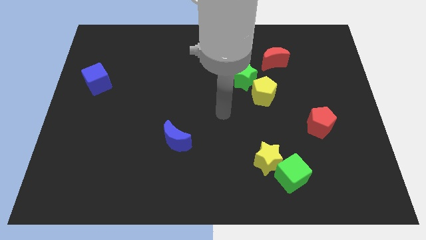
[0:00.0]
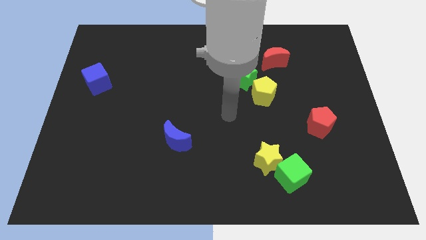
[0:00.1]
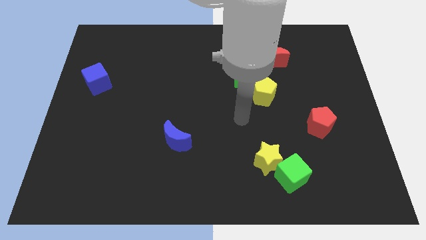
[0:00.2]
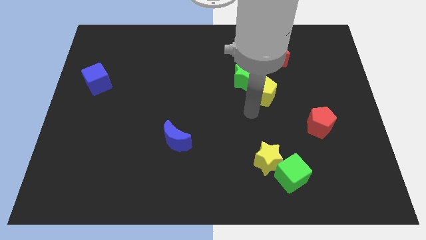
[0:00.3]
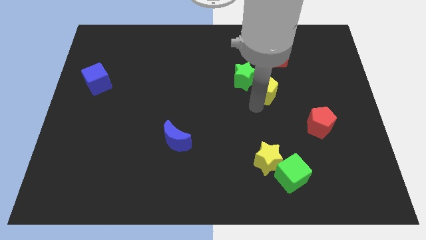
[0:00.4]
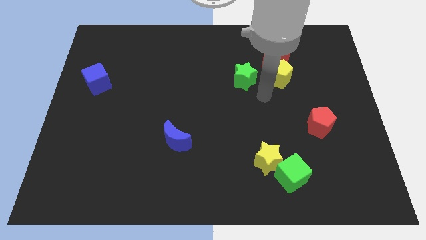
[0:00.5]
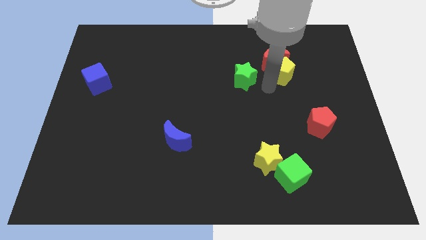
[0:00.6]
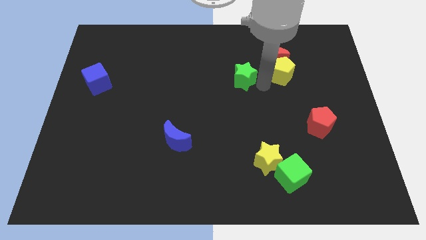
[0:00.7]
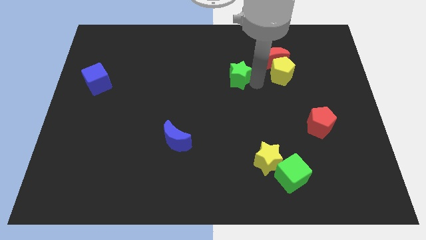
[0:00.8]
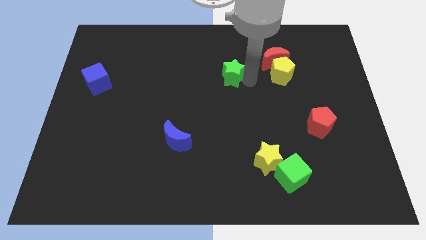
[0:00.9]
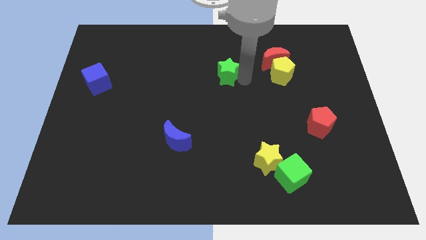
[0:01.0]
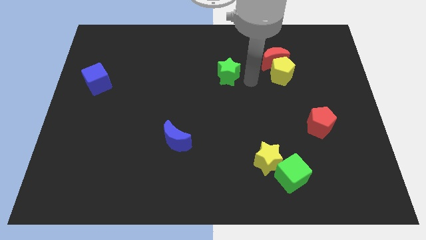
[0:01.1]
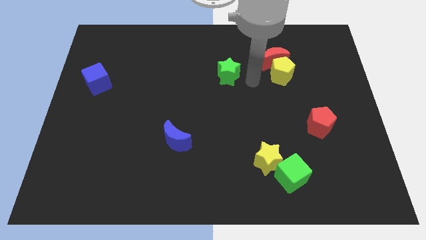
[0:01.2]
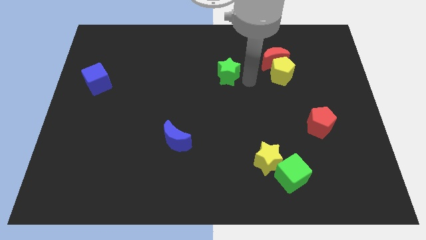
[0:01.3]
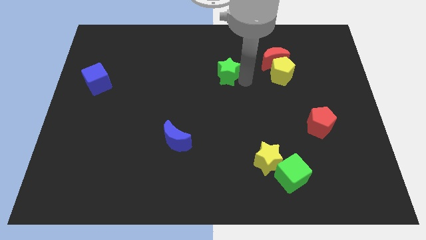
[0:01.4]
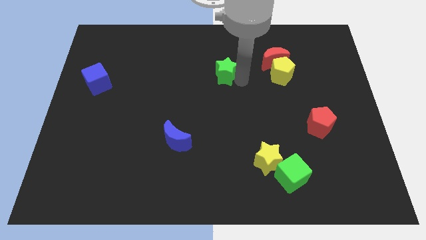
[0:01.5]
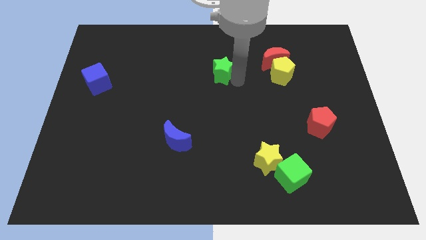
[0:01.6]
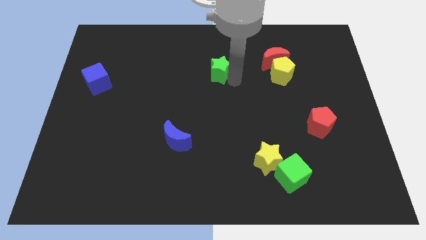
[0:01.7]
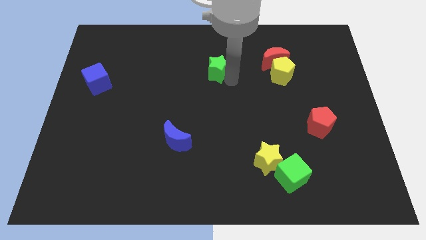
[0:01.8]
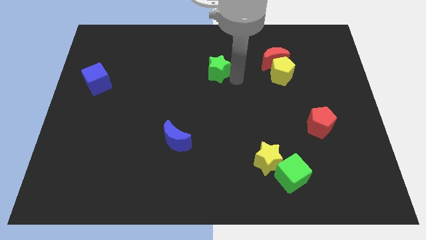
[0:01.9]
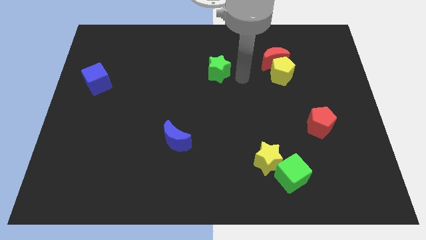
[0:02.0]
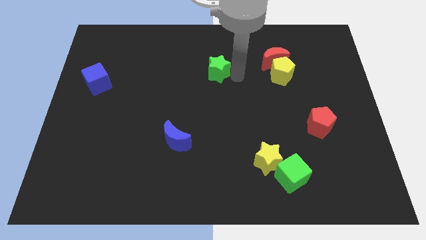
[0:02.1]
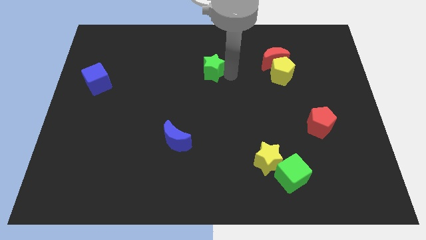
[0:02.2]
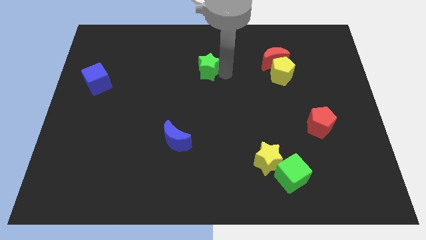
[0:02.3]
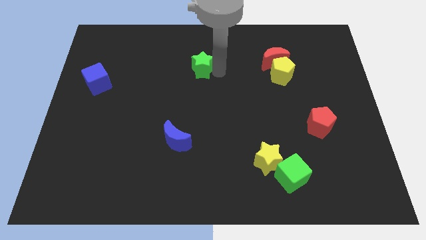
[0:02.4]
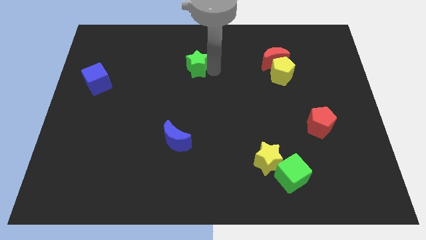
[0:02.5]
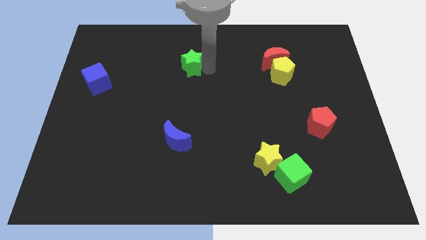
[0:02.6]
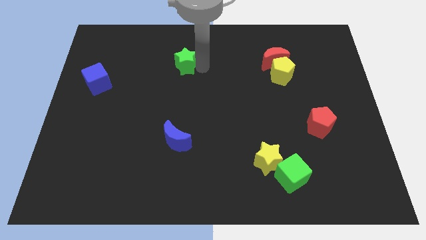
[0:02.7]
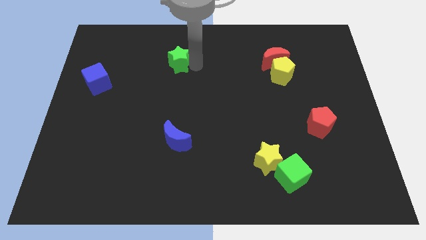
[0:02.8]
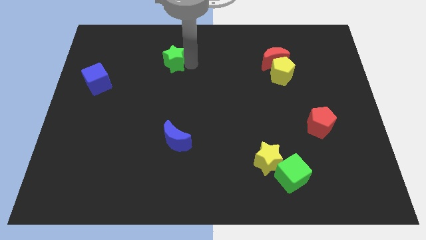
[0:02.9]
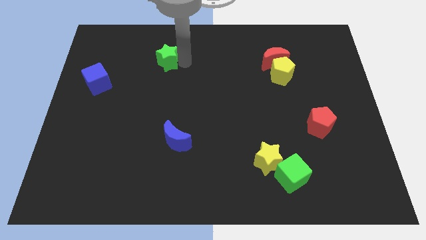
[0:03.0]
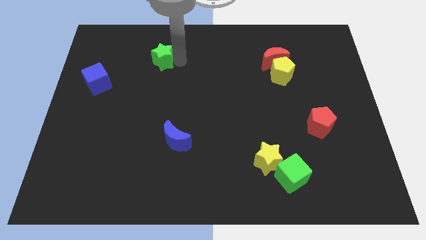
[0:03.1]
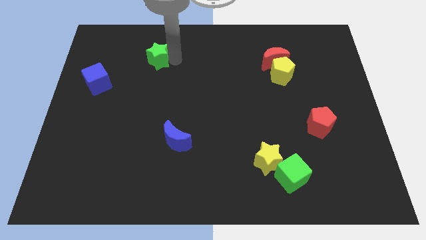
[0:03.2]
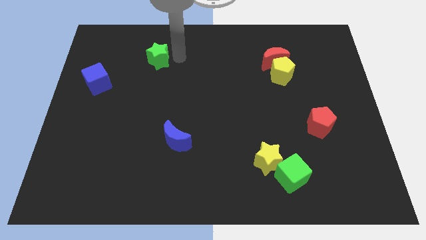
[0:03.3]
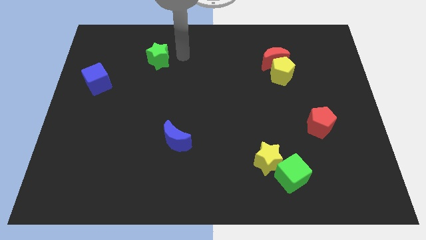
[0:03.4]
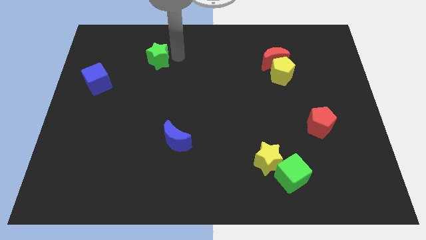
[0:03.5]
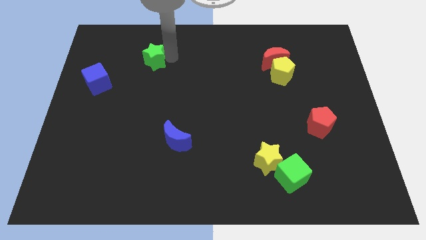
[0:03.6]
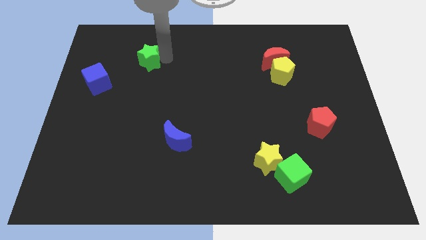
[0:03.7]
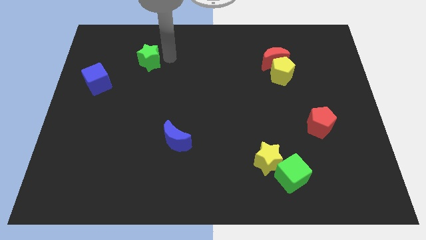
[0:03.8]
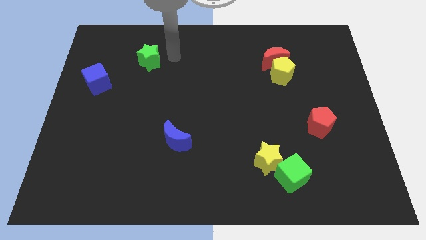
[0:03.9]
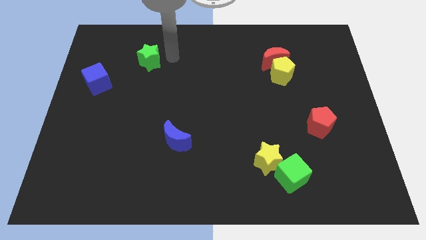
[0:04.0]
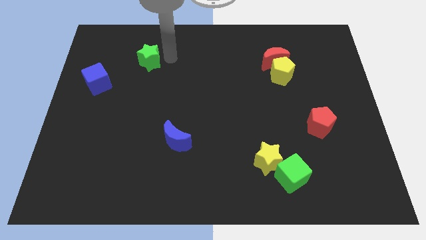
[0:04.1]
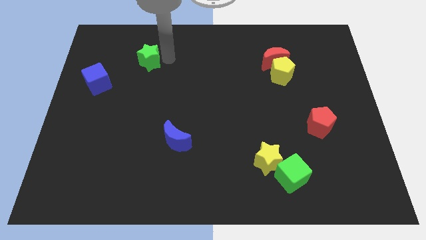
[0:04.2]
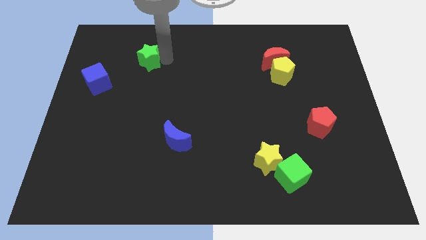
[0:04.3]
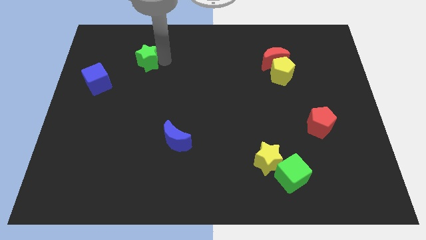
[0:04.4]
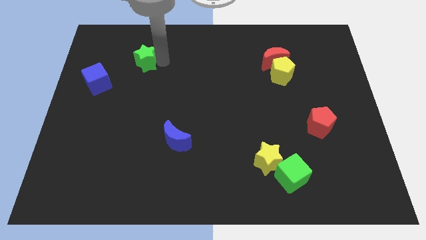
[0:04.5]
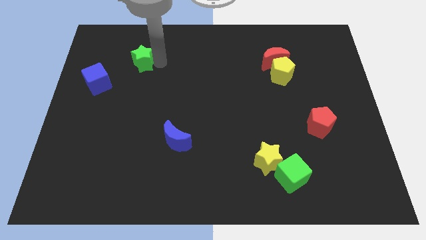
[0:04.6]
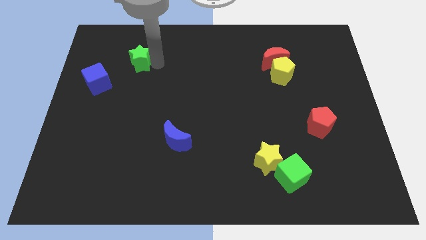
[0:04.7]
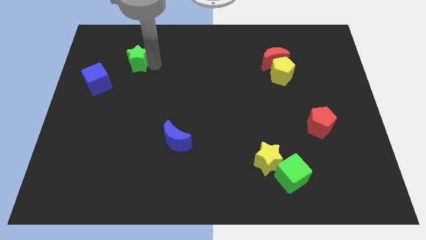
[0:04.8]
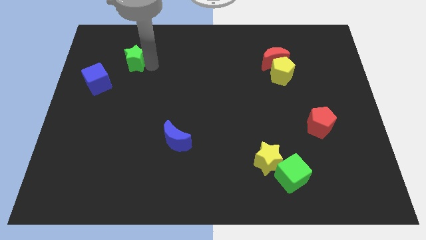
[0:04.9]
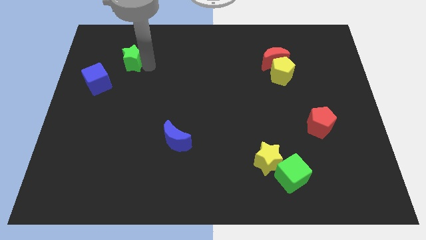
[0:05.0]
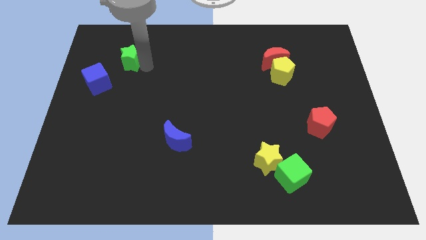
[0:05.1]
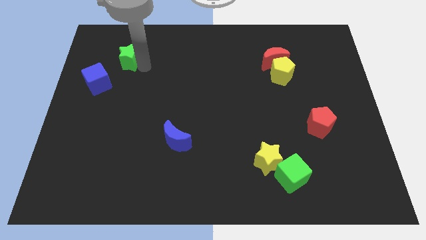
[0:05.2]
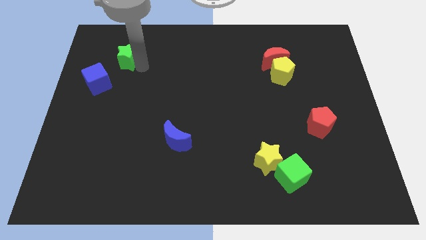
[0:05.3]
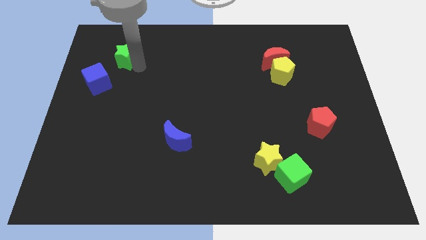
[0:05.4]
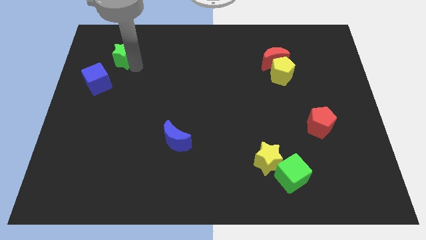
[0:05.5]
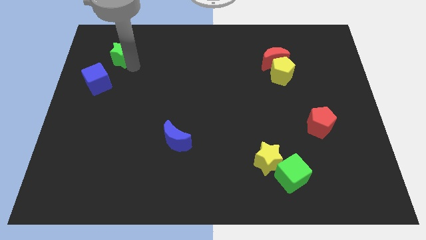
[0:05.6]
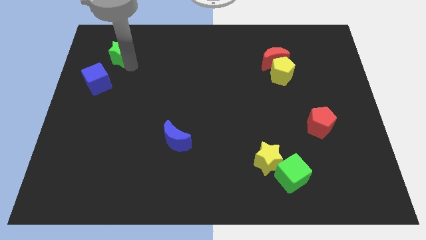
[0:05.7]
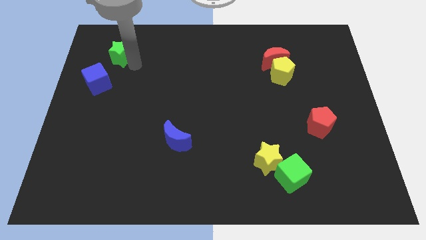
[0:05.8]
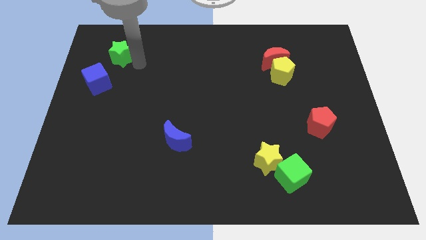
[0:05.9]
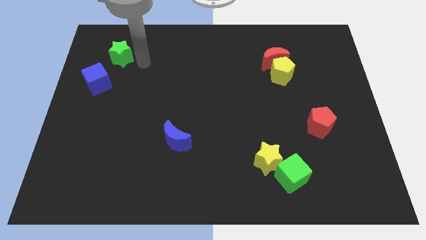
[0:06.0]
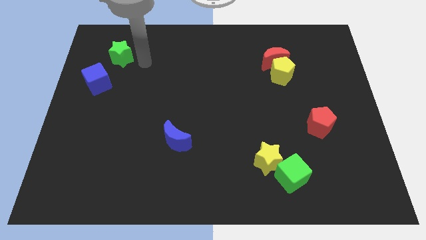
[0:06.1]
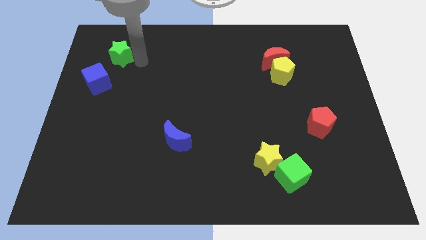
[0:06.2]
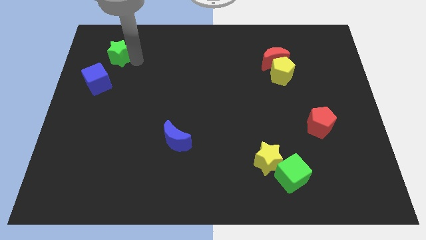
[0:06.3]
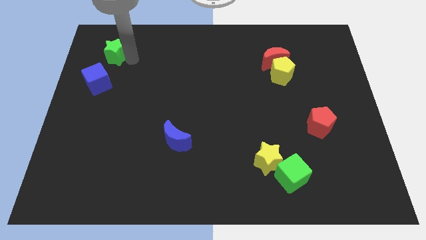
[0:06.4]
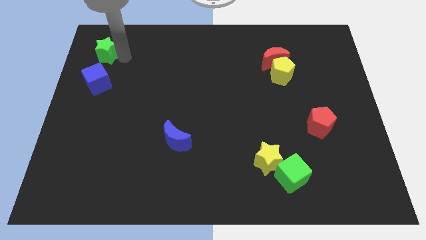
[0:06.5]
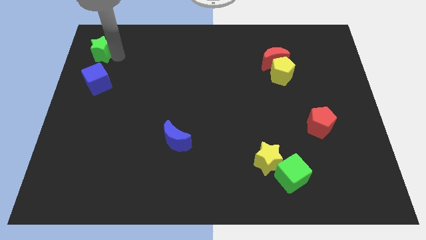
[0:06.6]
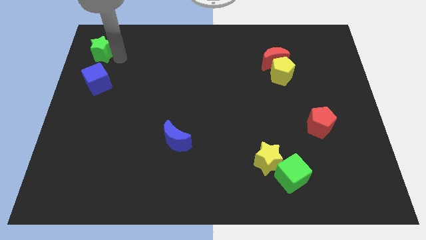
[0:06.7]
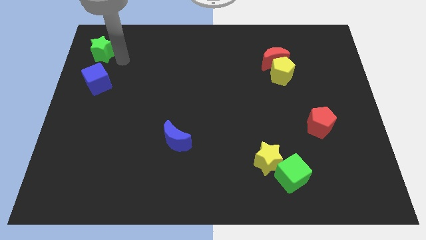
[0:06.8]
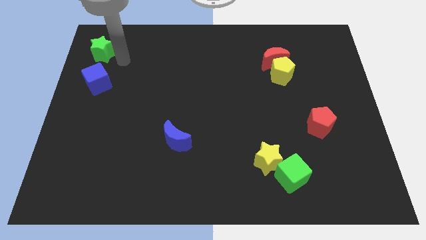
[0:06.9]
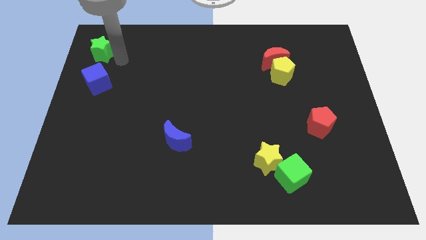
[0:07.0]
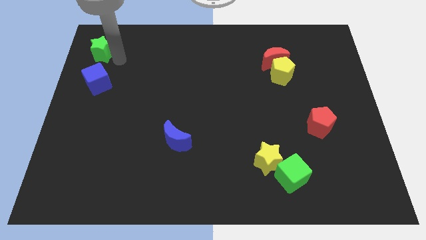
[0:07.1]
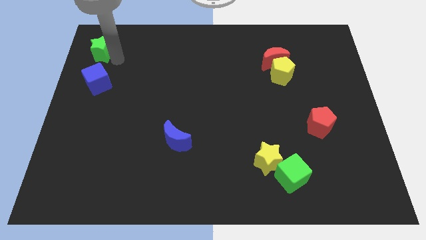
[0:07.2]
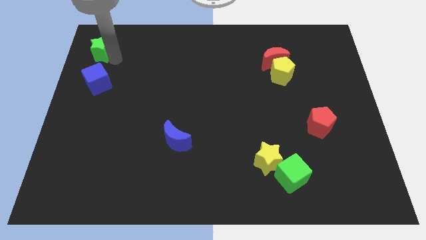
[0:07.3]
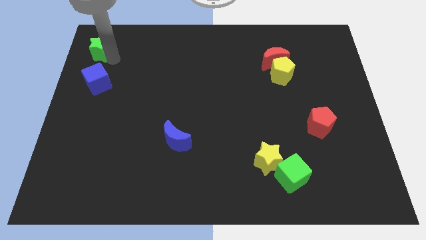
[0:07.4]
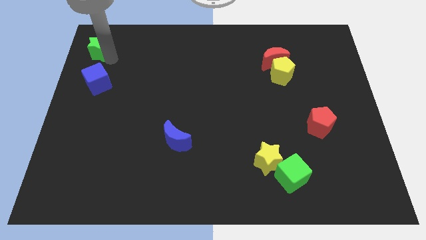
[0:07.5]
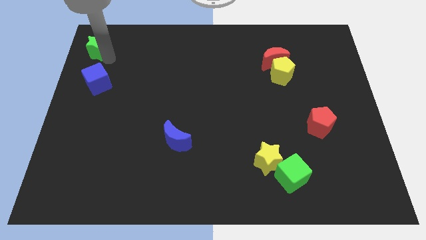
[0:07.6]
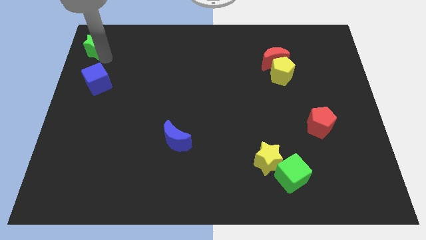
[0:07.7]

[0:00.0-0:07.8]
push the green star to the top left corner
